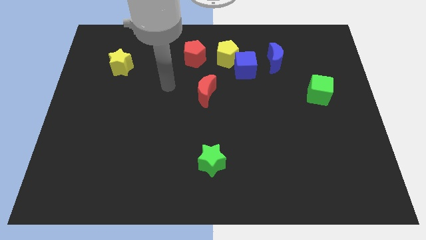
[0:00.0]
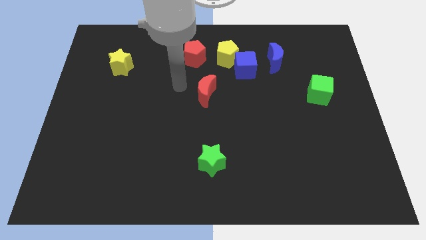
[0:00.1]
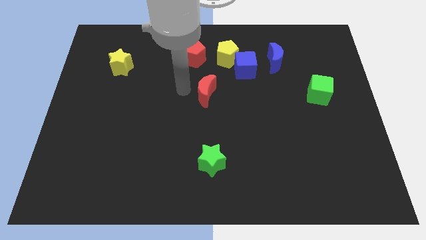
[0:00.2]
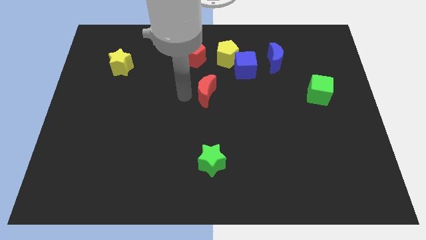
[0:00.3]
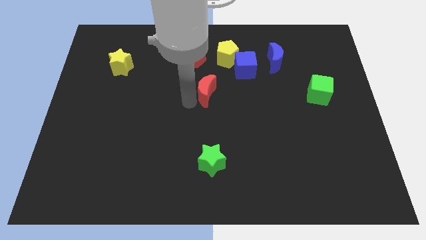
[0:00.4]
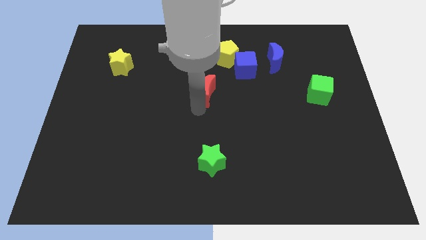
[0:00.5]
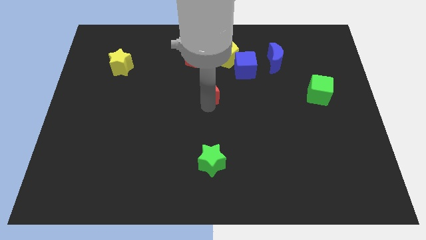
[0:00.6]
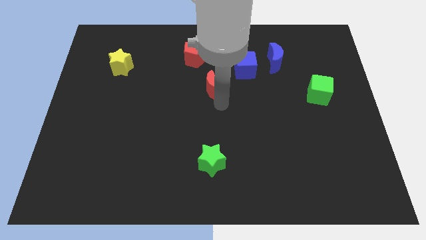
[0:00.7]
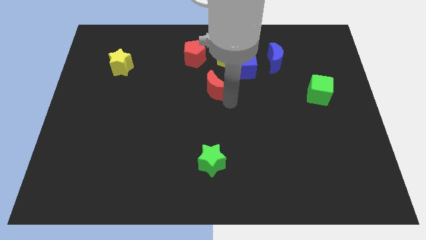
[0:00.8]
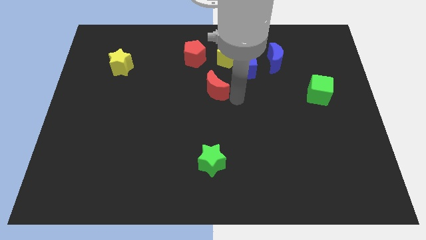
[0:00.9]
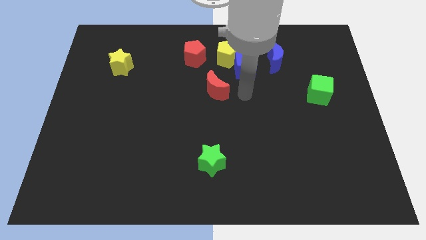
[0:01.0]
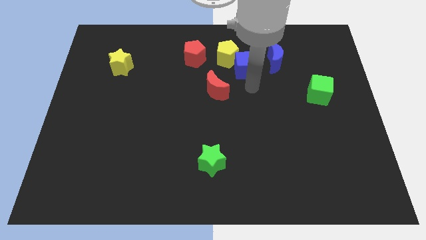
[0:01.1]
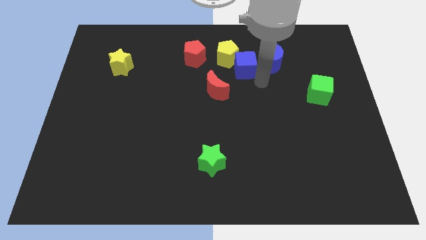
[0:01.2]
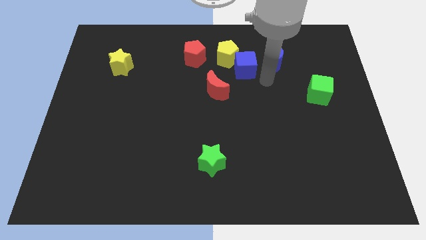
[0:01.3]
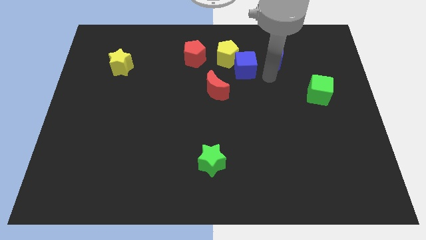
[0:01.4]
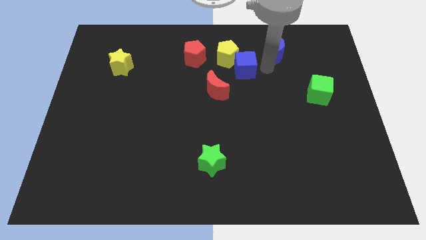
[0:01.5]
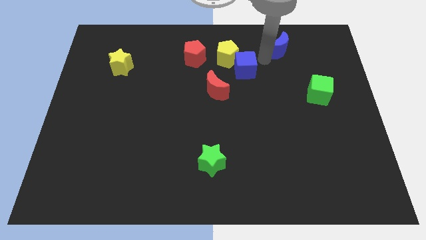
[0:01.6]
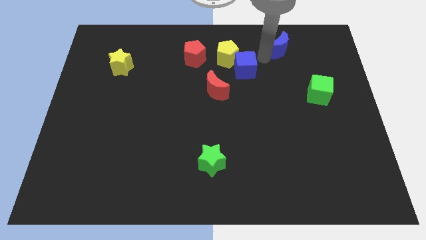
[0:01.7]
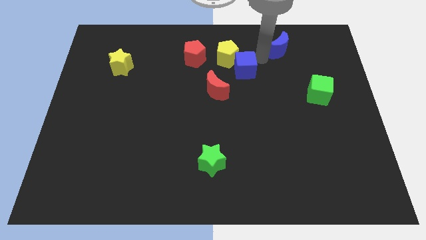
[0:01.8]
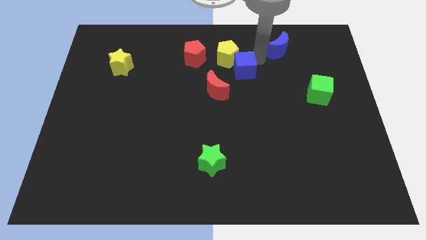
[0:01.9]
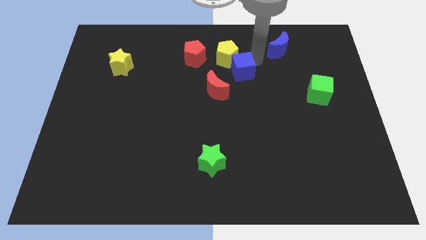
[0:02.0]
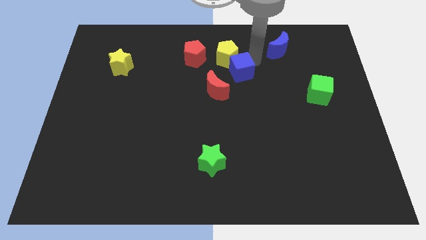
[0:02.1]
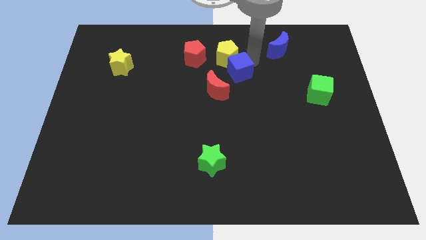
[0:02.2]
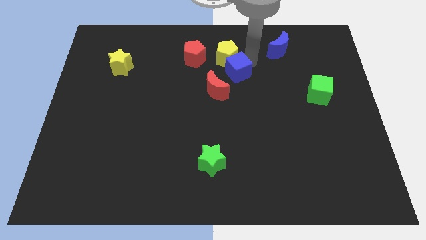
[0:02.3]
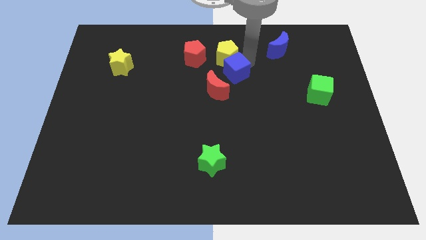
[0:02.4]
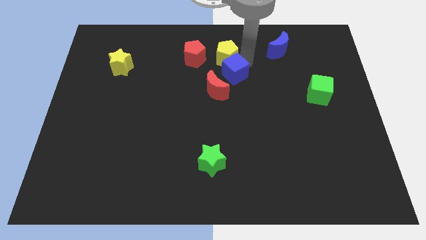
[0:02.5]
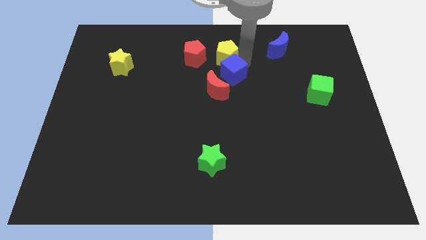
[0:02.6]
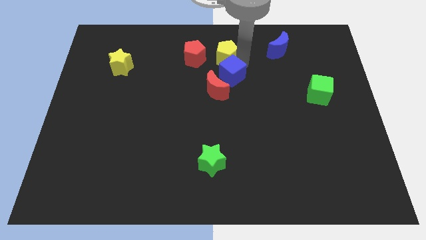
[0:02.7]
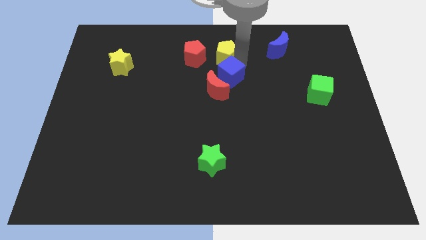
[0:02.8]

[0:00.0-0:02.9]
separate the blue cube from the yellow pentagon and blue moon

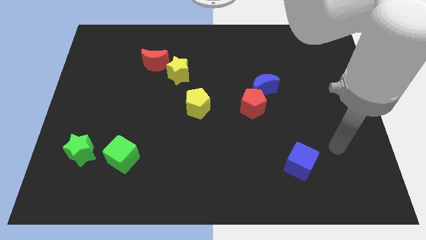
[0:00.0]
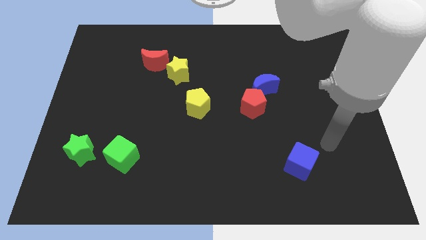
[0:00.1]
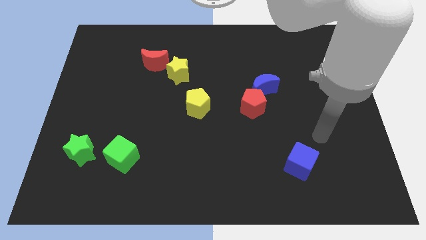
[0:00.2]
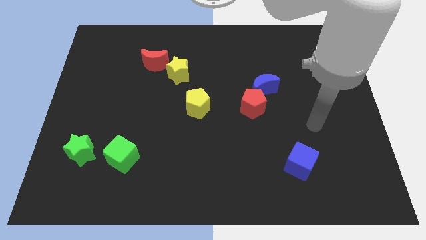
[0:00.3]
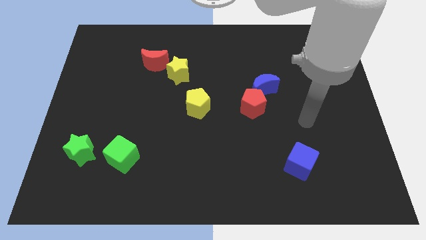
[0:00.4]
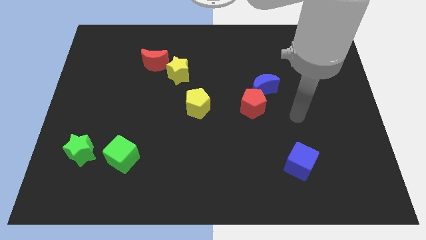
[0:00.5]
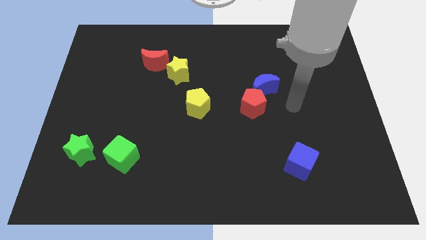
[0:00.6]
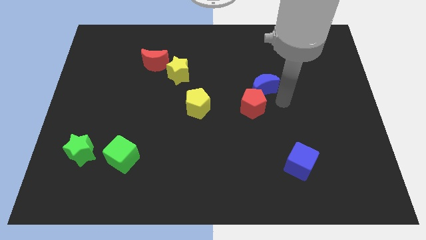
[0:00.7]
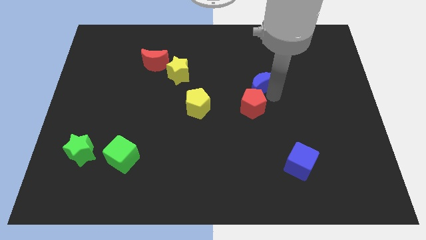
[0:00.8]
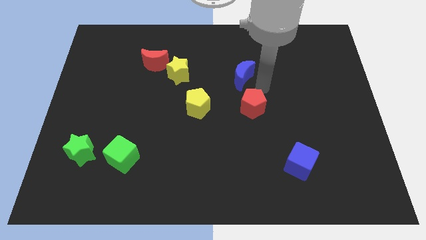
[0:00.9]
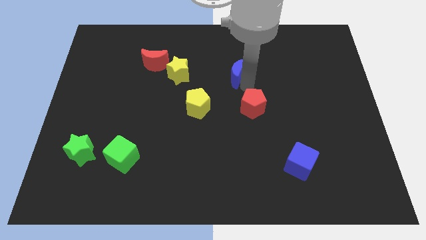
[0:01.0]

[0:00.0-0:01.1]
pull the red pentagon apart from the blue moon

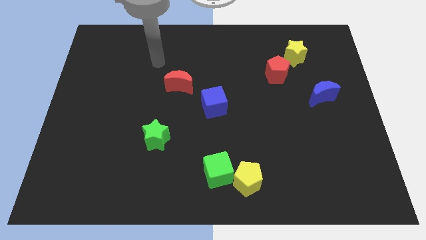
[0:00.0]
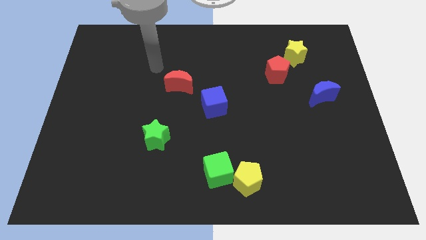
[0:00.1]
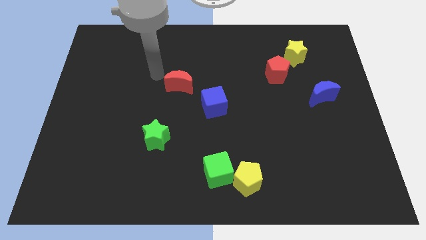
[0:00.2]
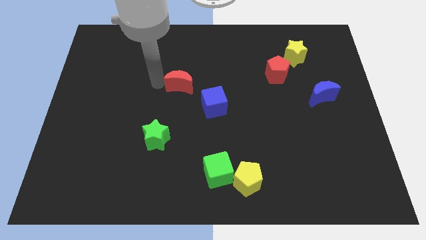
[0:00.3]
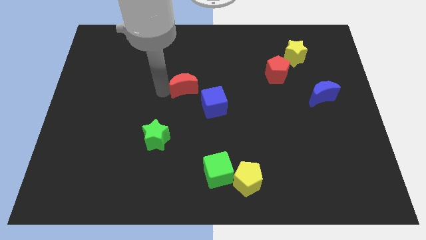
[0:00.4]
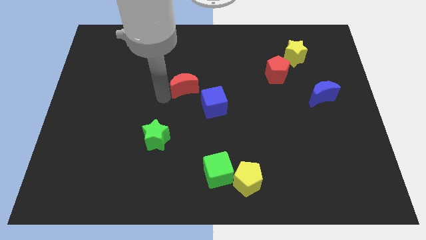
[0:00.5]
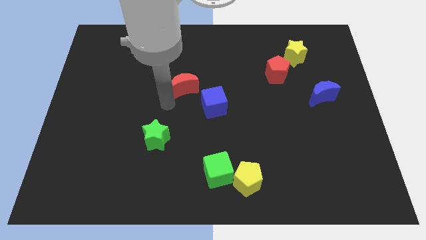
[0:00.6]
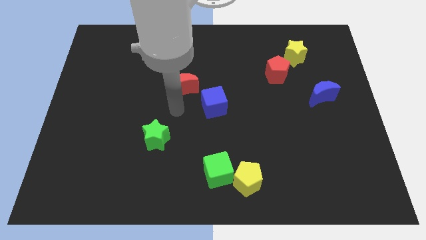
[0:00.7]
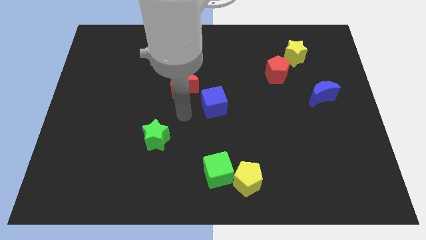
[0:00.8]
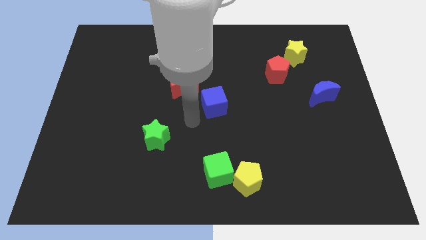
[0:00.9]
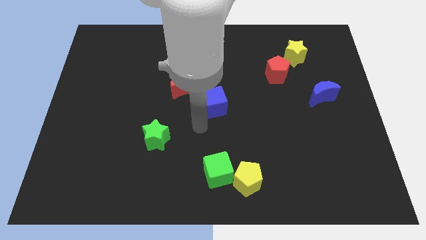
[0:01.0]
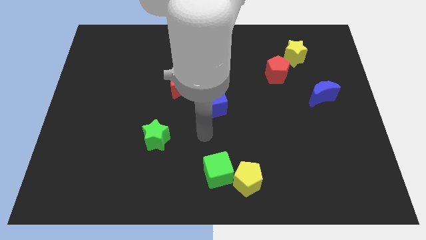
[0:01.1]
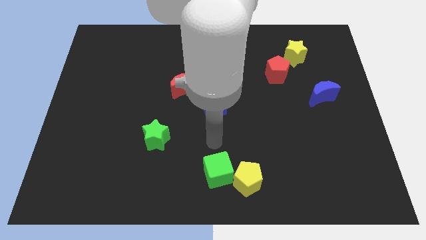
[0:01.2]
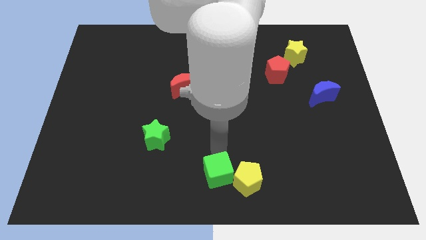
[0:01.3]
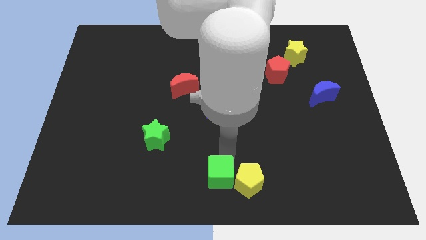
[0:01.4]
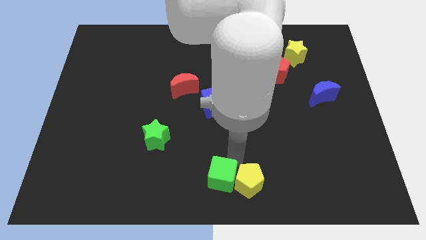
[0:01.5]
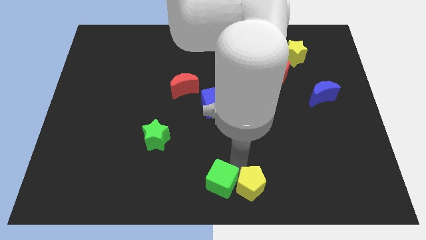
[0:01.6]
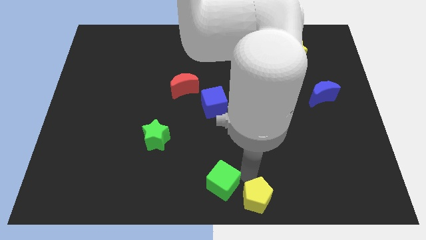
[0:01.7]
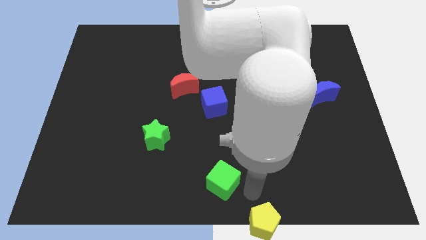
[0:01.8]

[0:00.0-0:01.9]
separate the green cube from the yellow pentagon

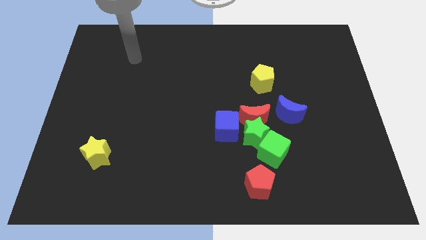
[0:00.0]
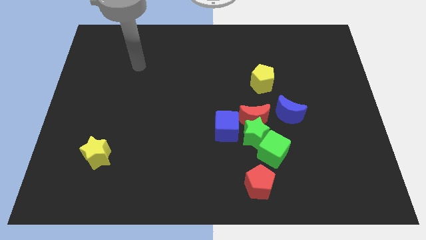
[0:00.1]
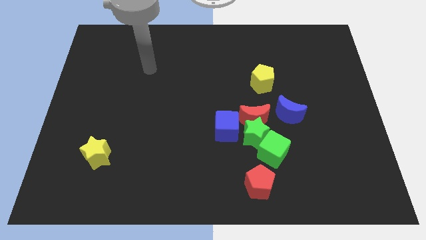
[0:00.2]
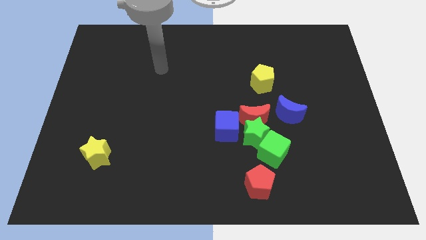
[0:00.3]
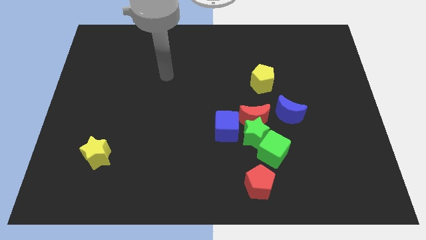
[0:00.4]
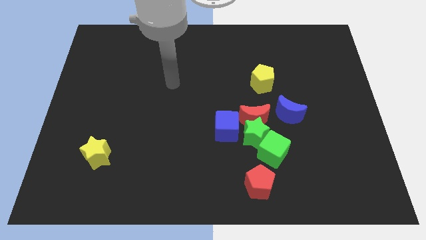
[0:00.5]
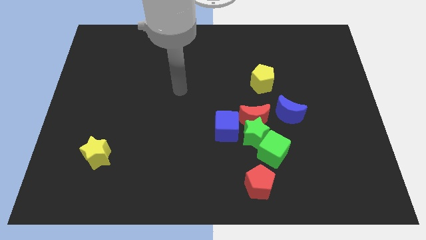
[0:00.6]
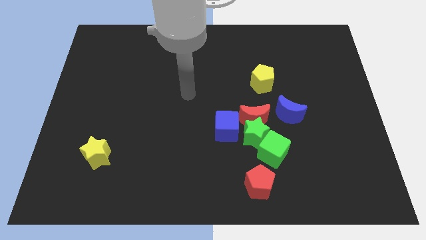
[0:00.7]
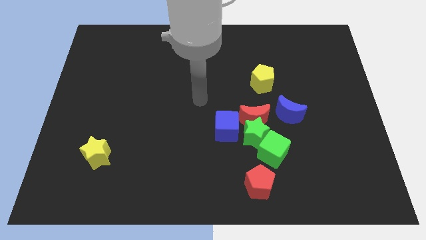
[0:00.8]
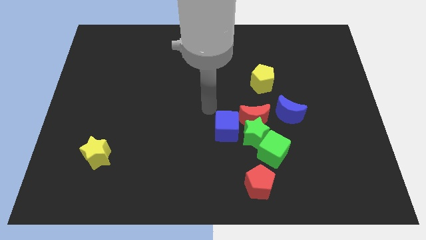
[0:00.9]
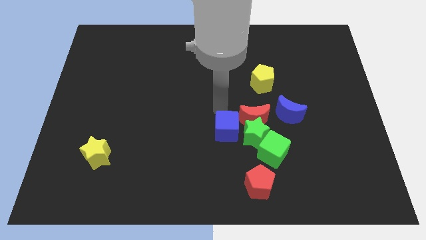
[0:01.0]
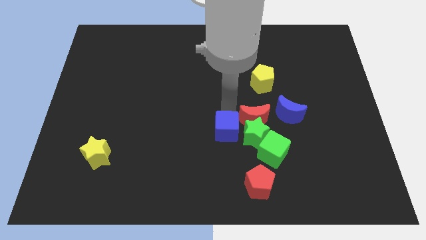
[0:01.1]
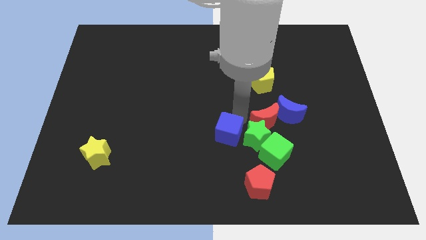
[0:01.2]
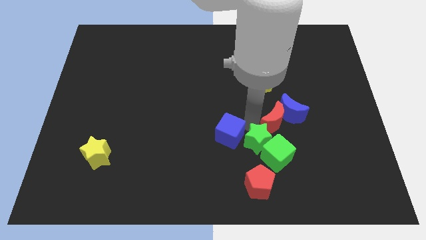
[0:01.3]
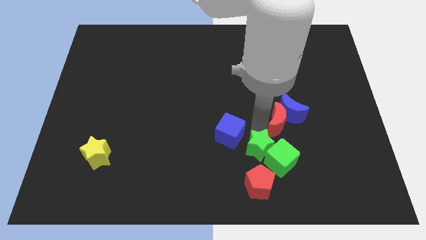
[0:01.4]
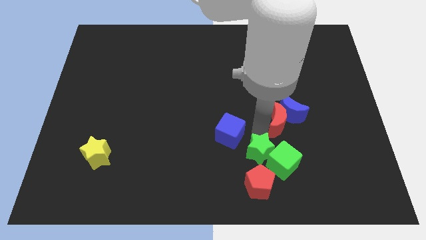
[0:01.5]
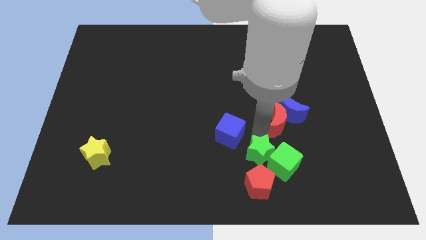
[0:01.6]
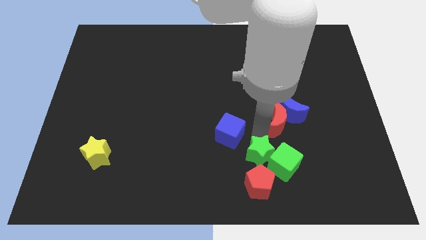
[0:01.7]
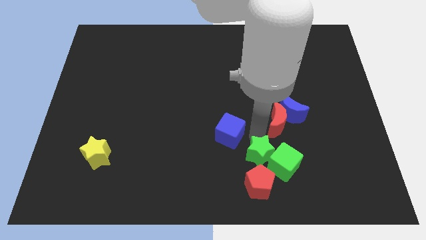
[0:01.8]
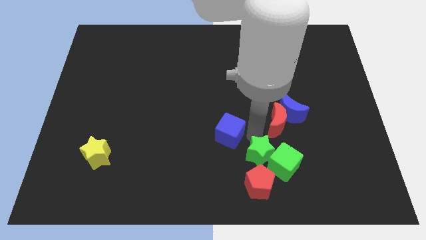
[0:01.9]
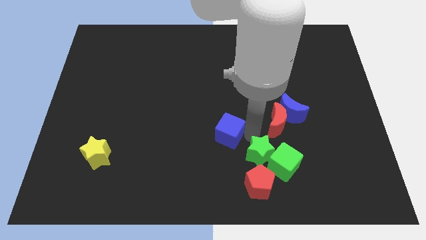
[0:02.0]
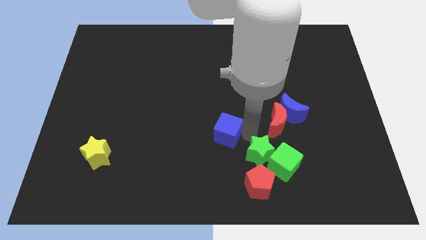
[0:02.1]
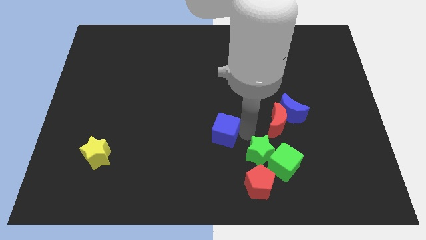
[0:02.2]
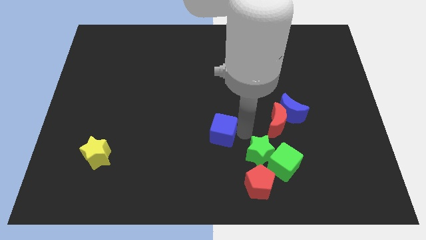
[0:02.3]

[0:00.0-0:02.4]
pull the blue cube apart from the green star and red moon

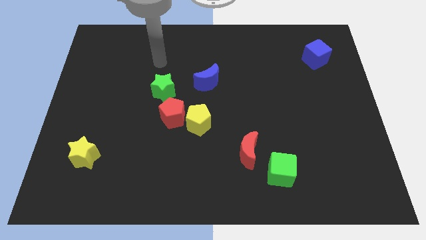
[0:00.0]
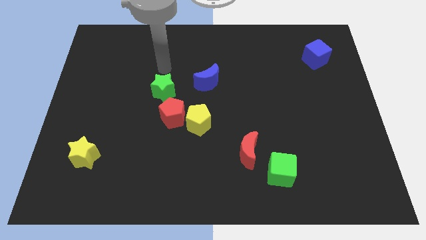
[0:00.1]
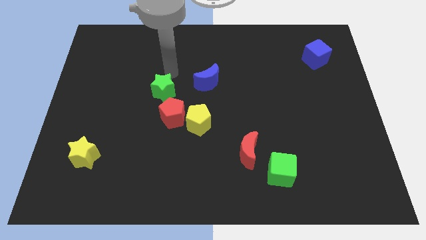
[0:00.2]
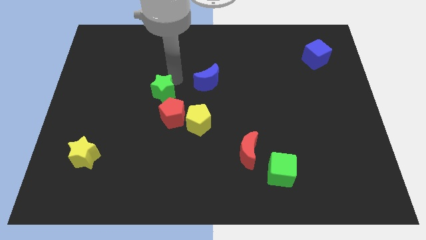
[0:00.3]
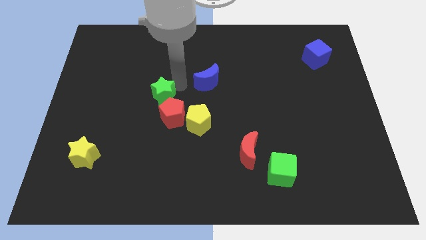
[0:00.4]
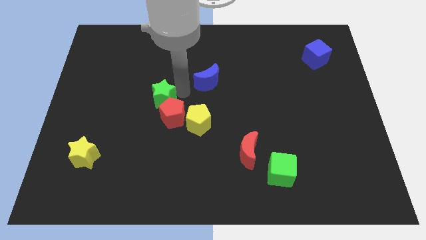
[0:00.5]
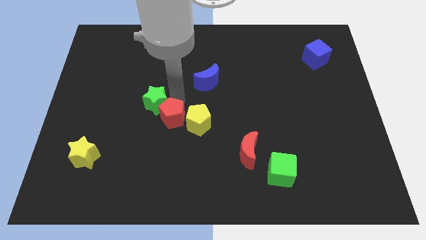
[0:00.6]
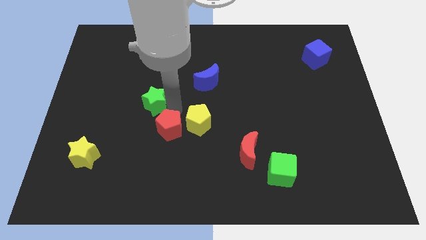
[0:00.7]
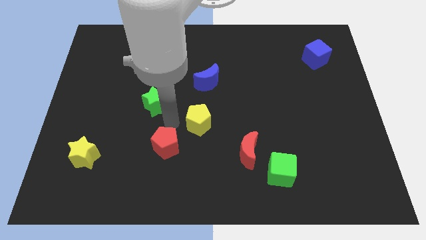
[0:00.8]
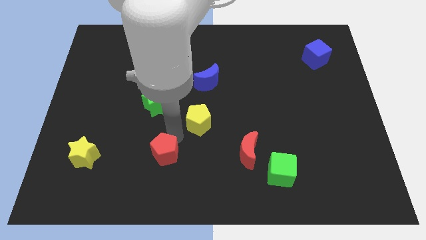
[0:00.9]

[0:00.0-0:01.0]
move the yellow pentagon away from the red pentagon
